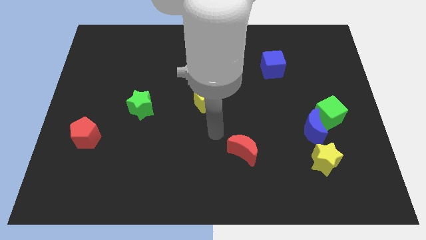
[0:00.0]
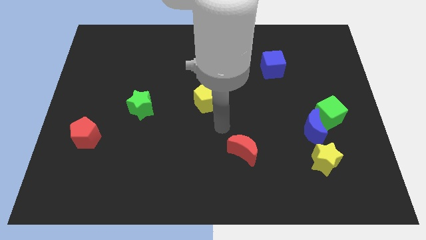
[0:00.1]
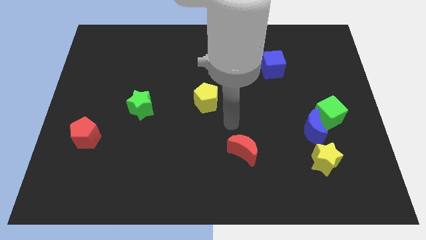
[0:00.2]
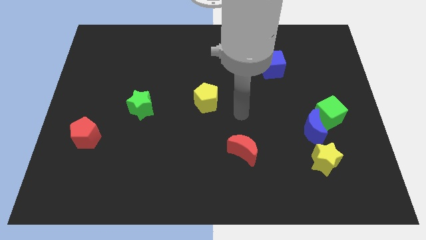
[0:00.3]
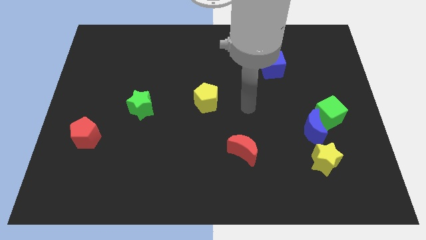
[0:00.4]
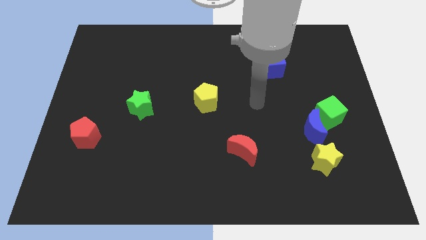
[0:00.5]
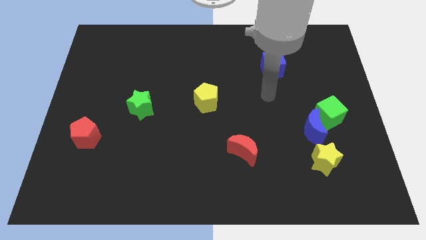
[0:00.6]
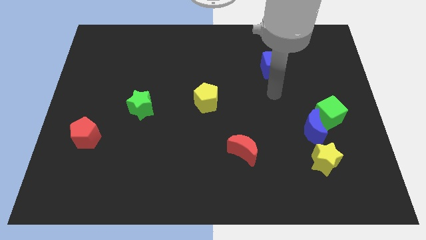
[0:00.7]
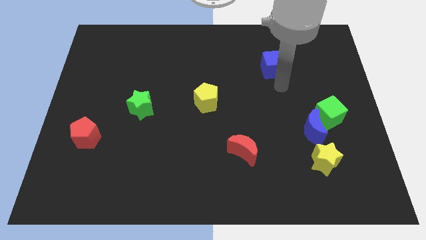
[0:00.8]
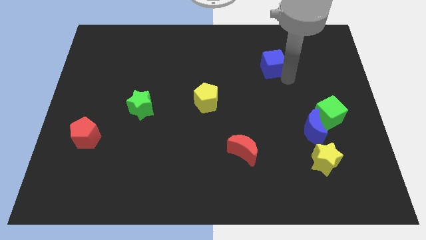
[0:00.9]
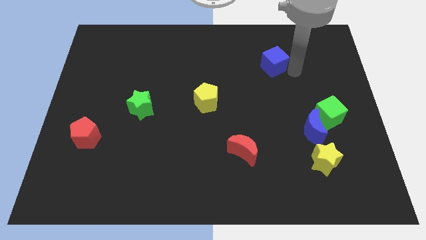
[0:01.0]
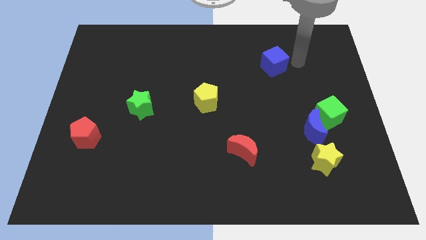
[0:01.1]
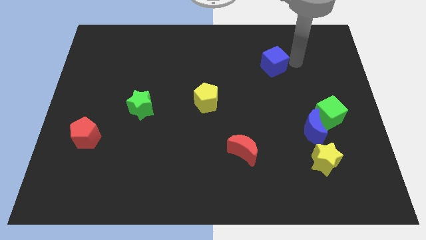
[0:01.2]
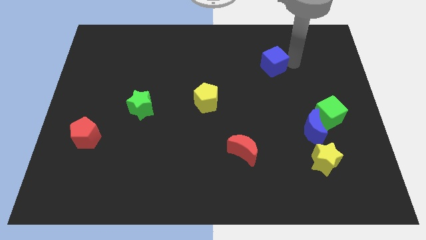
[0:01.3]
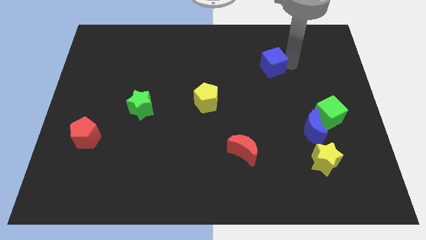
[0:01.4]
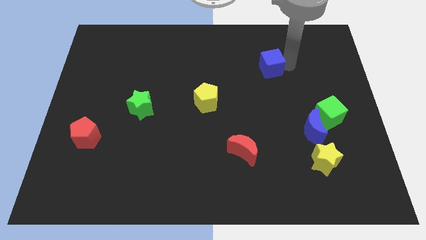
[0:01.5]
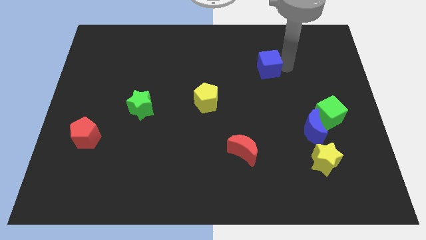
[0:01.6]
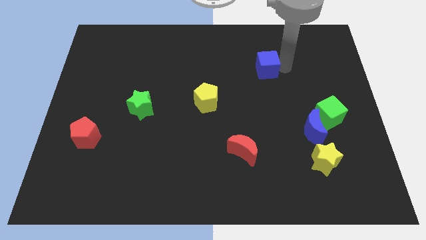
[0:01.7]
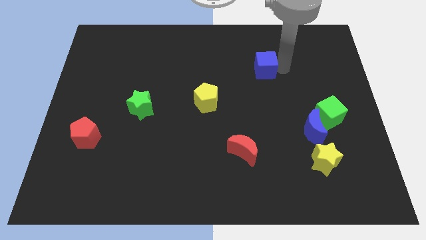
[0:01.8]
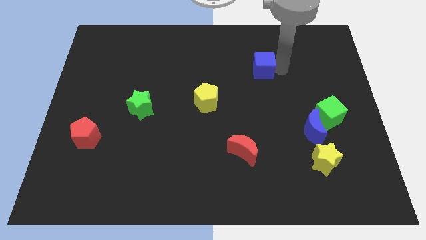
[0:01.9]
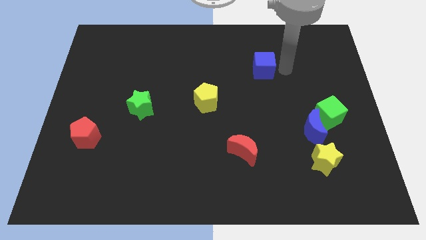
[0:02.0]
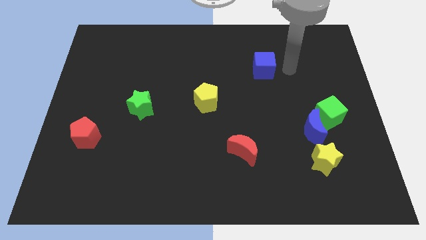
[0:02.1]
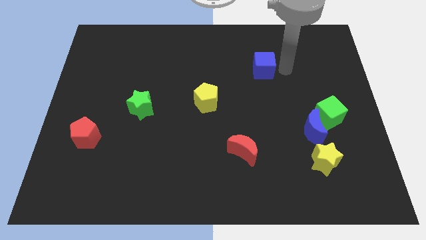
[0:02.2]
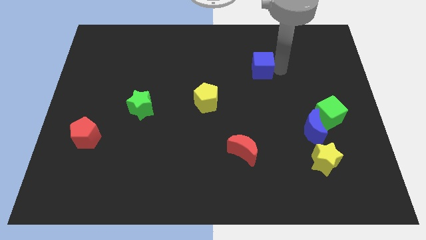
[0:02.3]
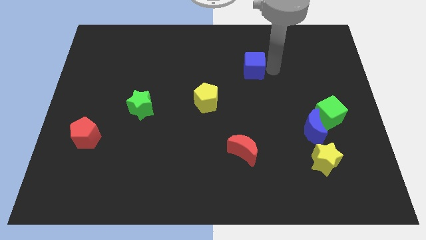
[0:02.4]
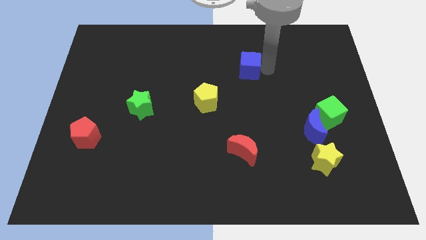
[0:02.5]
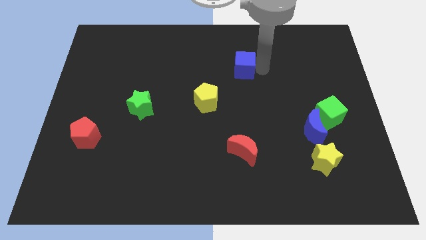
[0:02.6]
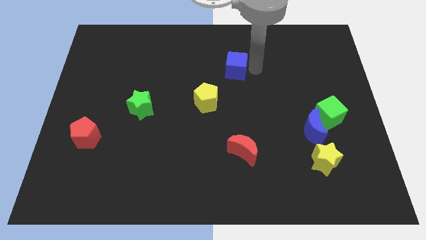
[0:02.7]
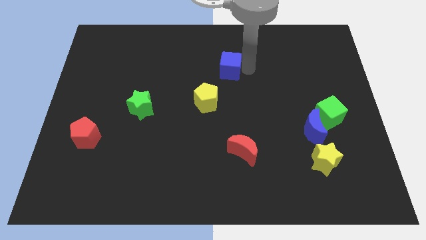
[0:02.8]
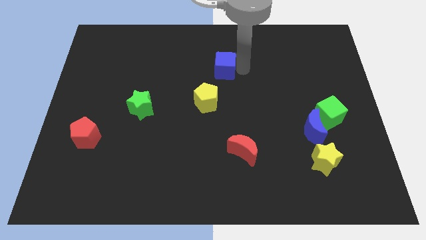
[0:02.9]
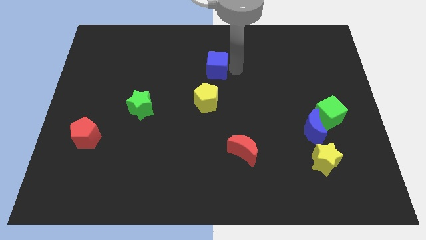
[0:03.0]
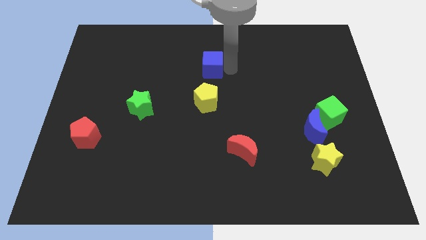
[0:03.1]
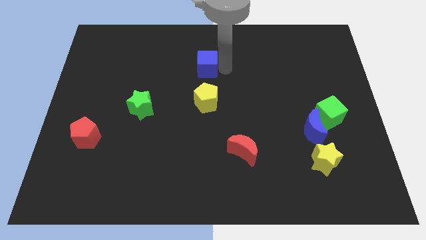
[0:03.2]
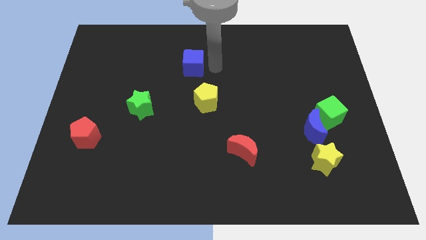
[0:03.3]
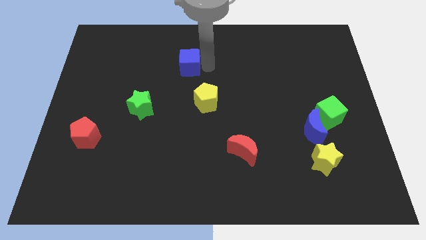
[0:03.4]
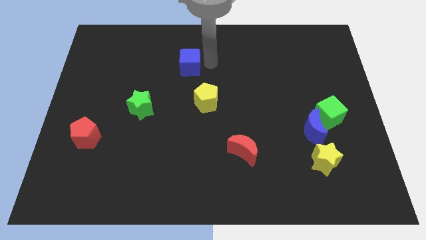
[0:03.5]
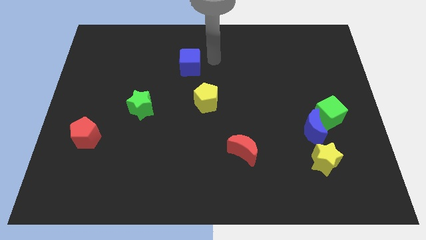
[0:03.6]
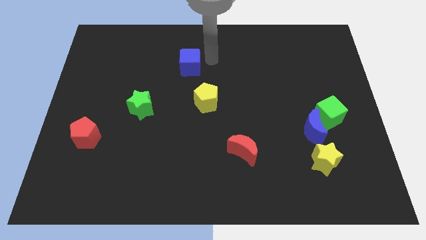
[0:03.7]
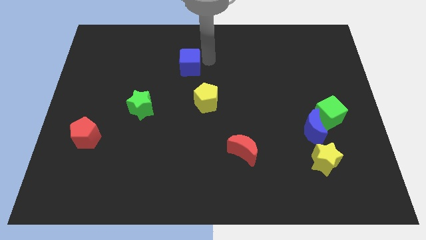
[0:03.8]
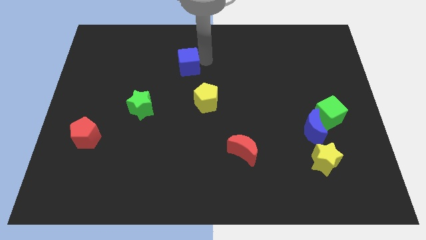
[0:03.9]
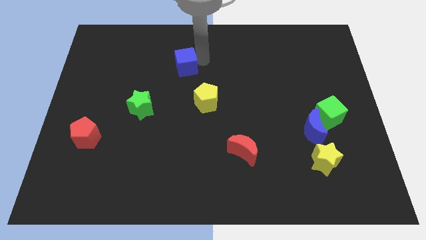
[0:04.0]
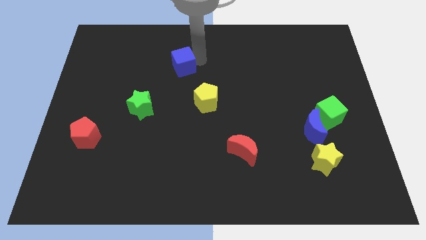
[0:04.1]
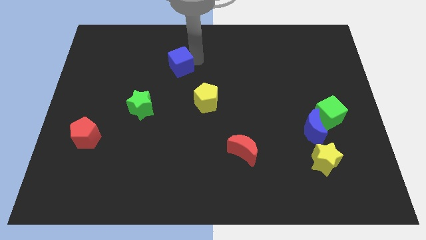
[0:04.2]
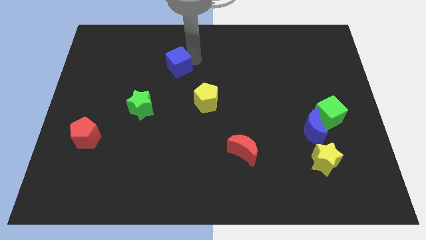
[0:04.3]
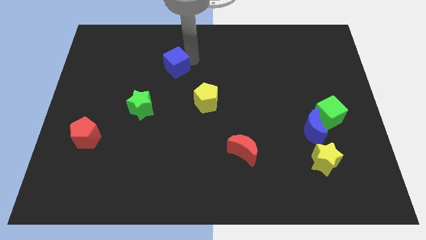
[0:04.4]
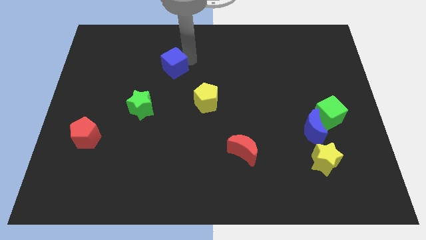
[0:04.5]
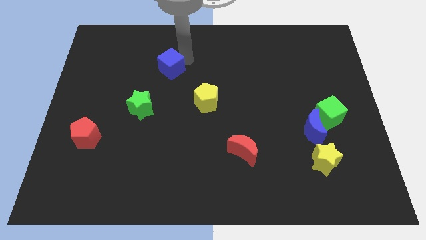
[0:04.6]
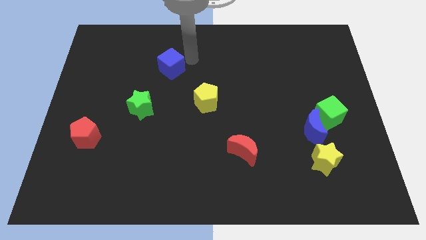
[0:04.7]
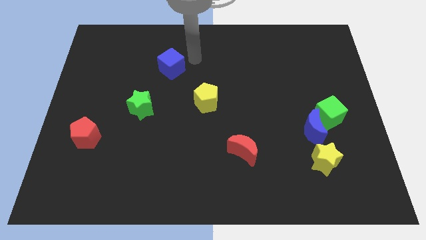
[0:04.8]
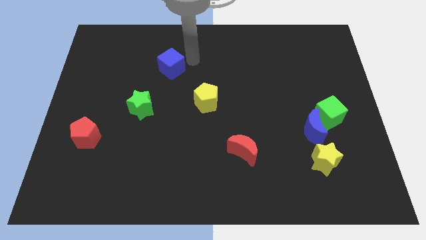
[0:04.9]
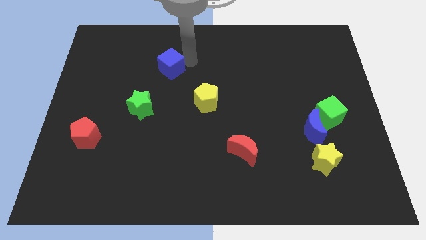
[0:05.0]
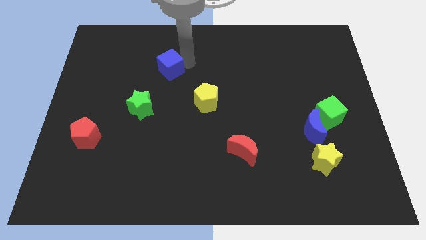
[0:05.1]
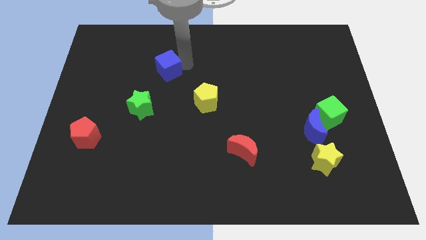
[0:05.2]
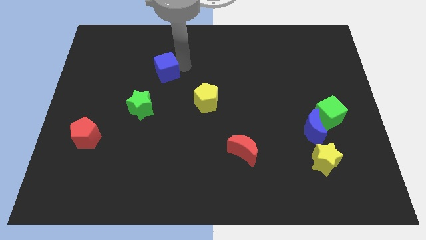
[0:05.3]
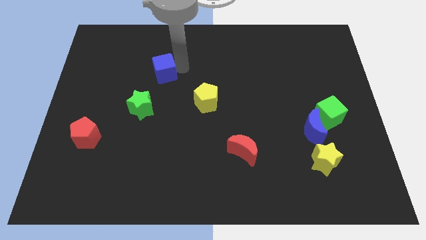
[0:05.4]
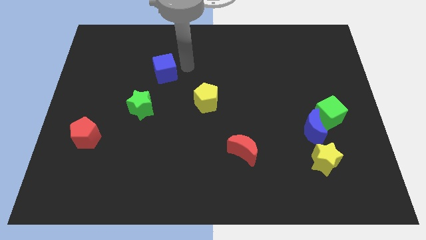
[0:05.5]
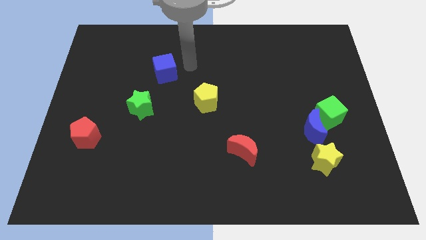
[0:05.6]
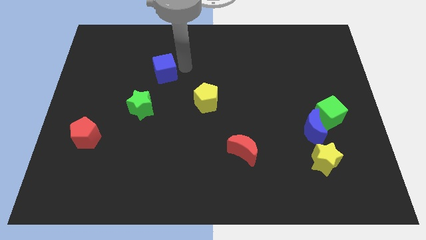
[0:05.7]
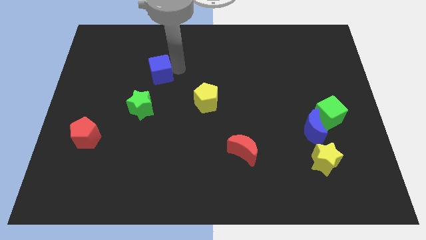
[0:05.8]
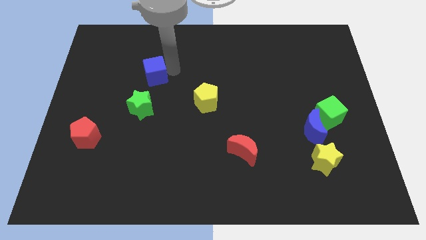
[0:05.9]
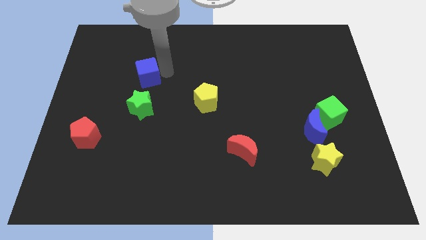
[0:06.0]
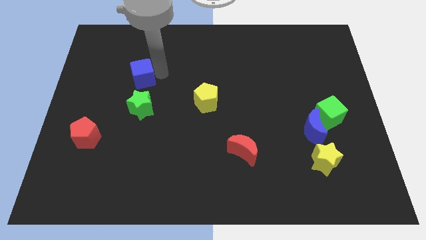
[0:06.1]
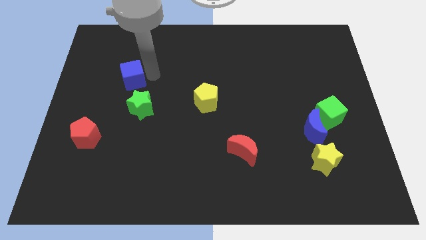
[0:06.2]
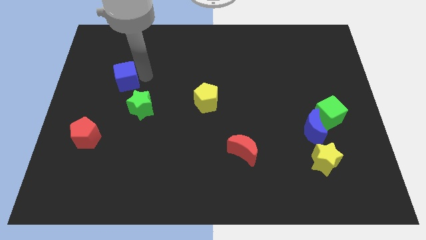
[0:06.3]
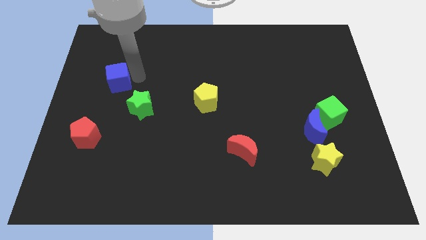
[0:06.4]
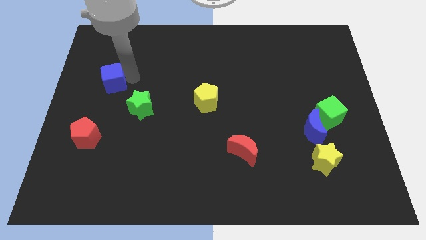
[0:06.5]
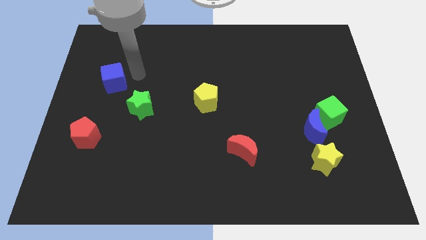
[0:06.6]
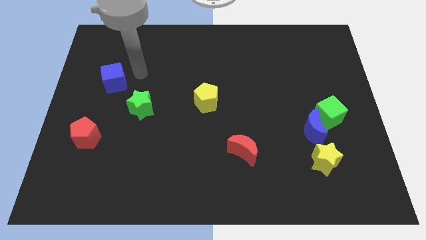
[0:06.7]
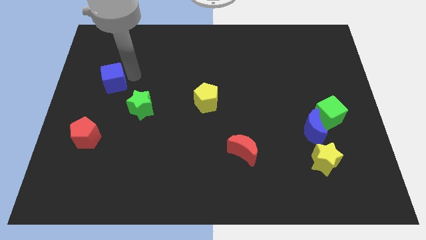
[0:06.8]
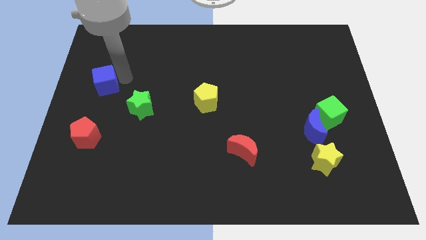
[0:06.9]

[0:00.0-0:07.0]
slide the blue cube to the left side of the board
